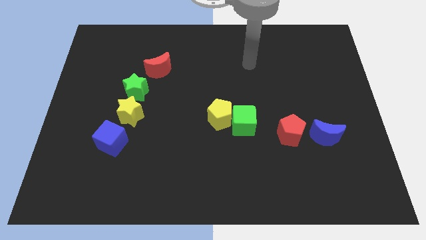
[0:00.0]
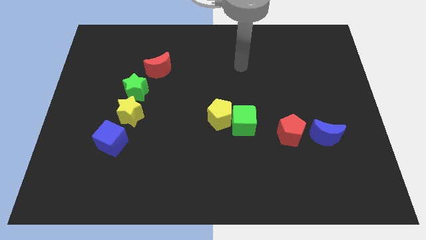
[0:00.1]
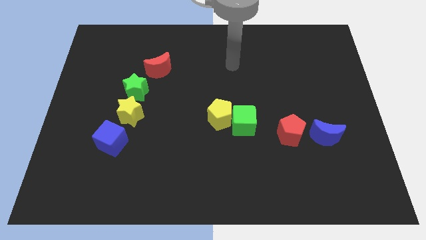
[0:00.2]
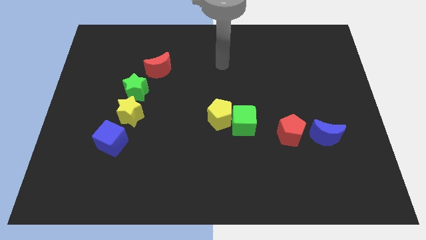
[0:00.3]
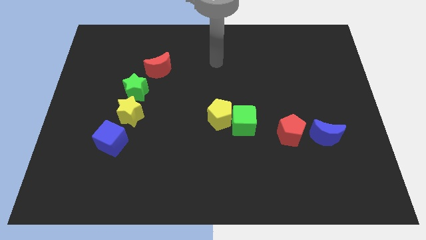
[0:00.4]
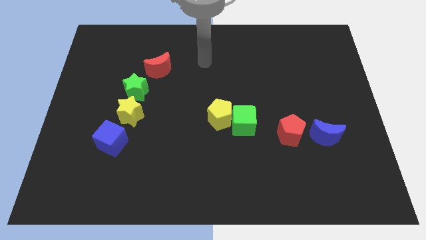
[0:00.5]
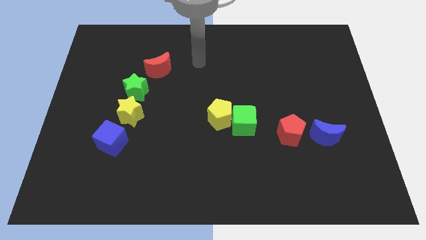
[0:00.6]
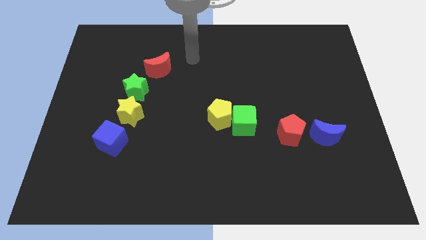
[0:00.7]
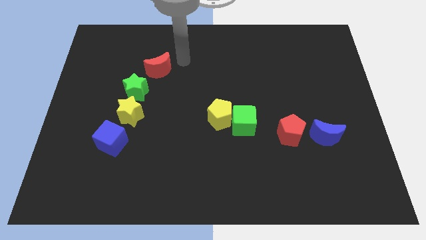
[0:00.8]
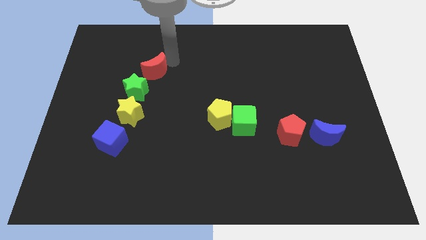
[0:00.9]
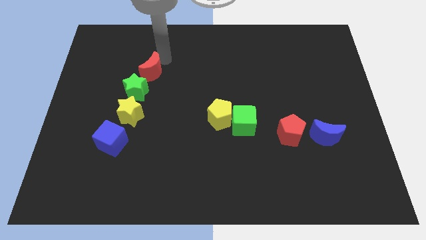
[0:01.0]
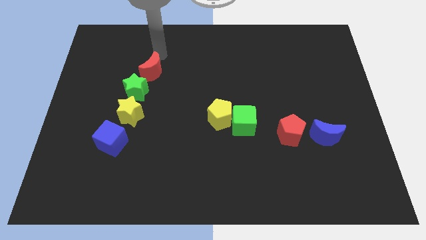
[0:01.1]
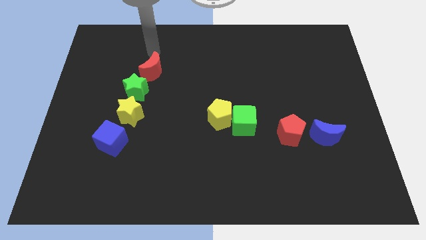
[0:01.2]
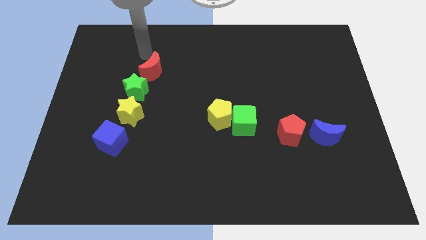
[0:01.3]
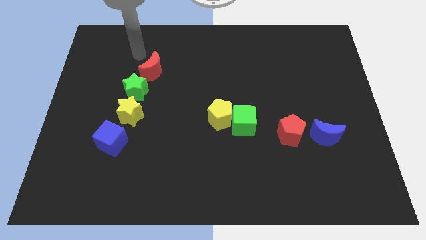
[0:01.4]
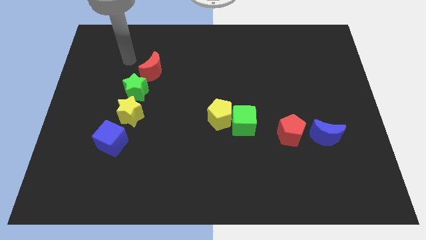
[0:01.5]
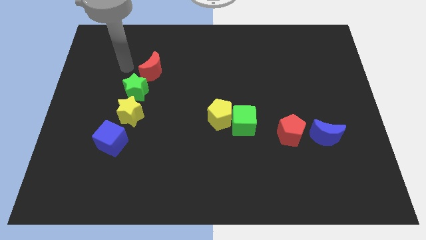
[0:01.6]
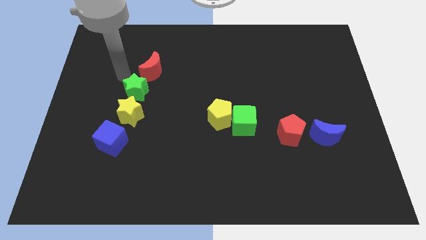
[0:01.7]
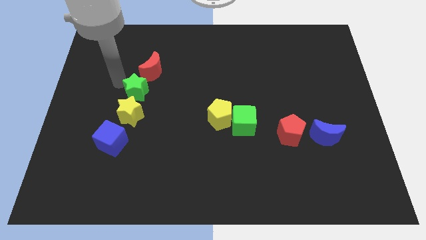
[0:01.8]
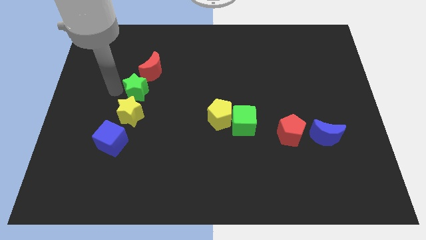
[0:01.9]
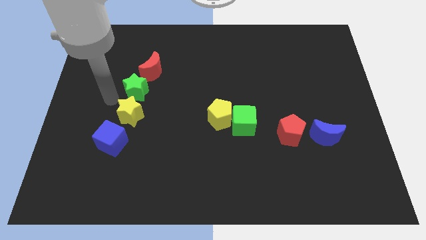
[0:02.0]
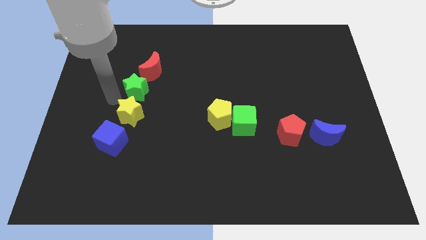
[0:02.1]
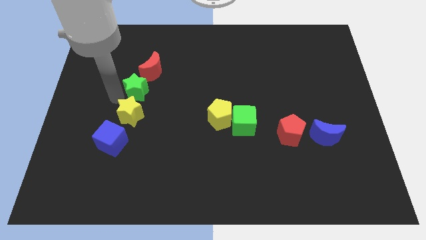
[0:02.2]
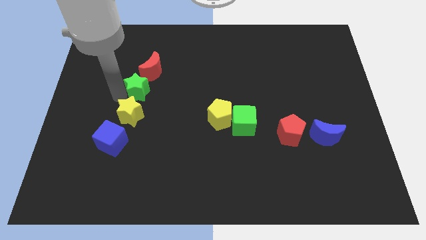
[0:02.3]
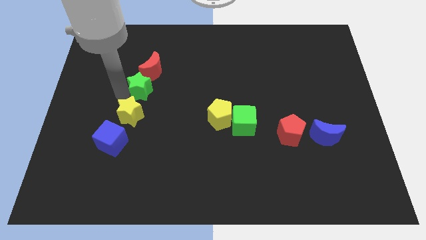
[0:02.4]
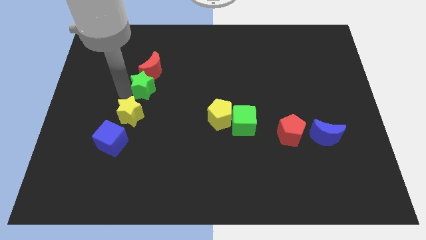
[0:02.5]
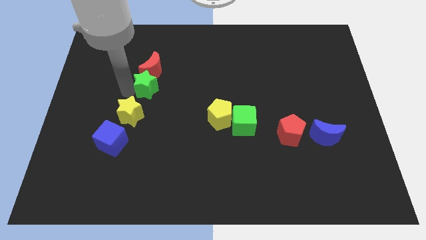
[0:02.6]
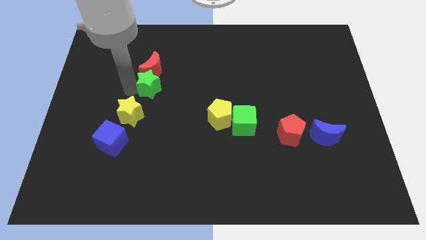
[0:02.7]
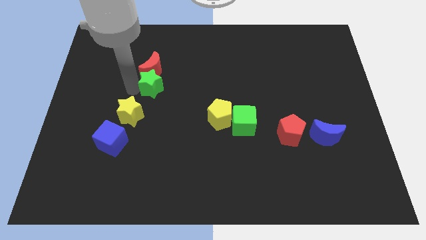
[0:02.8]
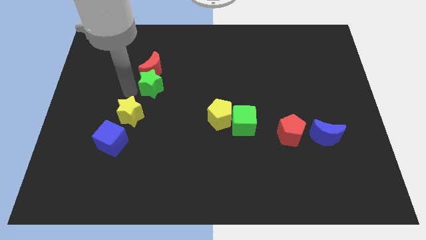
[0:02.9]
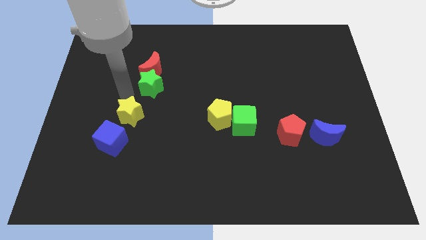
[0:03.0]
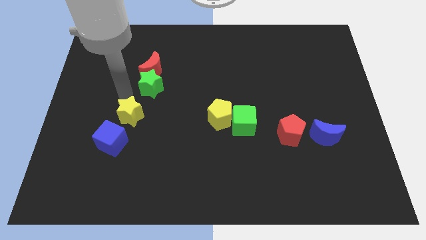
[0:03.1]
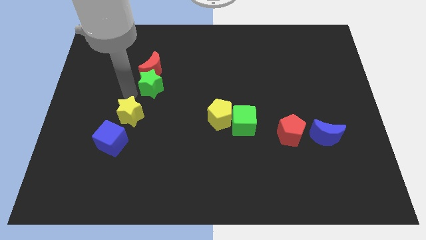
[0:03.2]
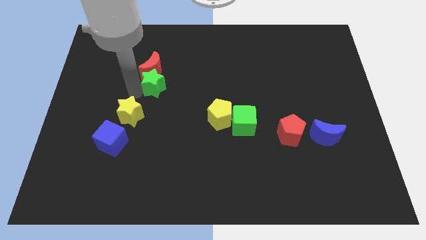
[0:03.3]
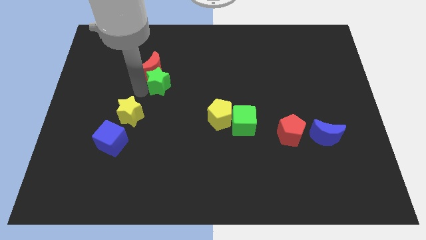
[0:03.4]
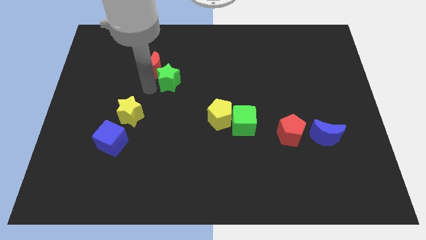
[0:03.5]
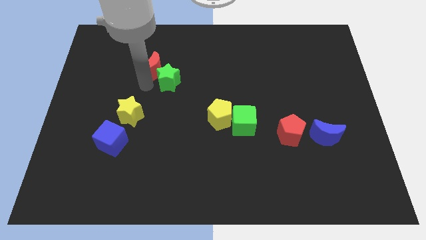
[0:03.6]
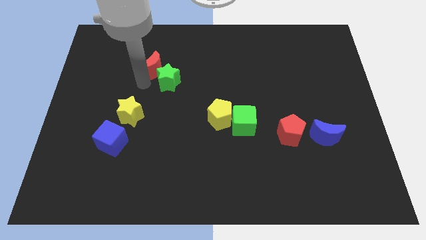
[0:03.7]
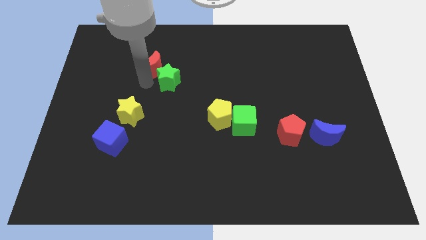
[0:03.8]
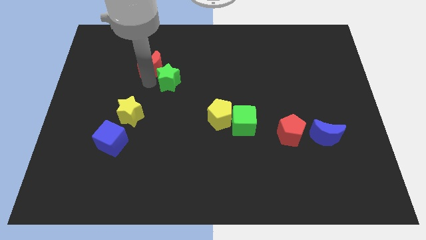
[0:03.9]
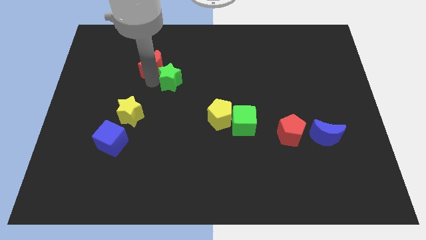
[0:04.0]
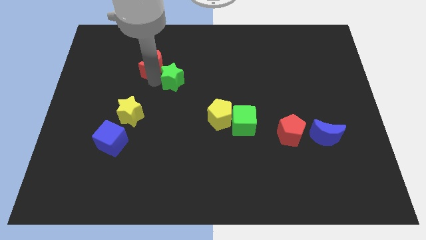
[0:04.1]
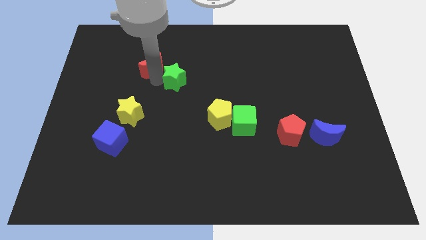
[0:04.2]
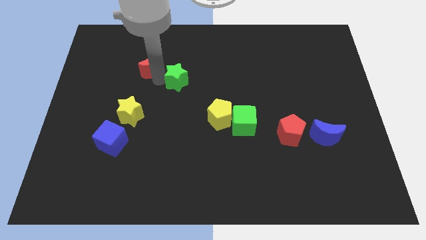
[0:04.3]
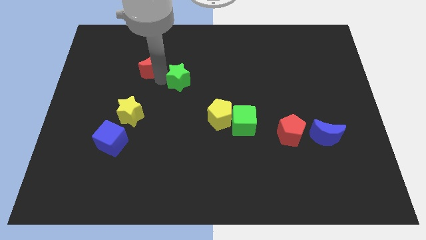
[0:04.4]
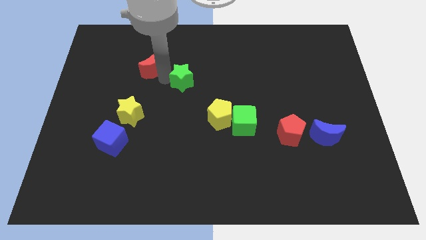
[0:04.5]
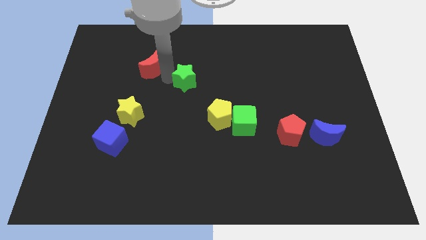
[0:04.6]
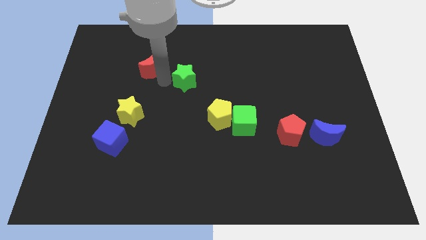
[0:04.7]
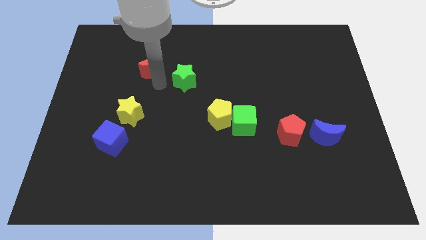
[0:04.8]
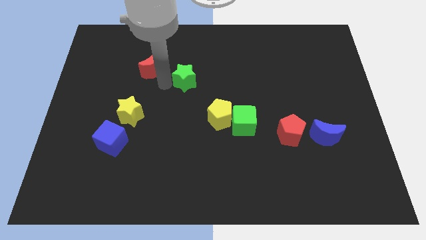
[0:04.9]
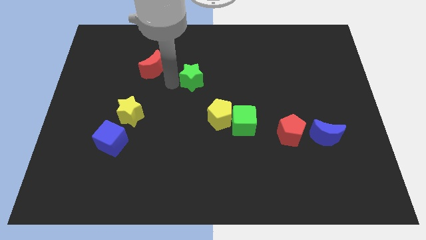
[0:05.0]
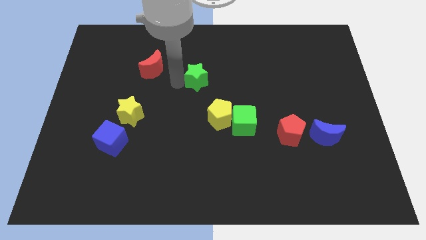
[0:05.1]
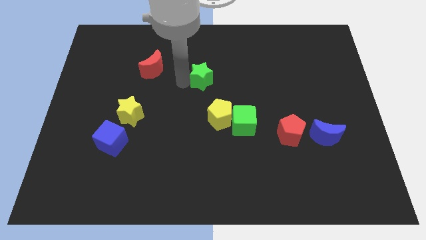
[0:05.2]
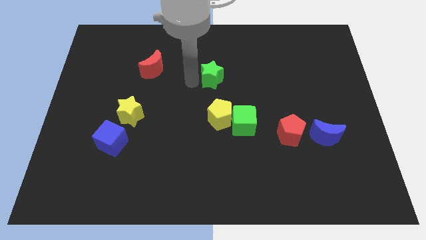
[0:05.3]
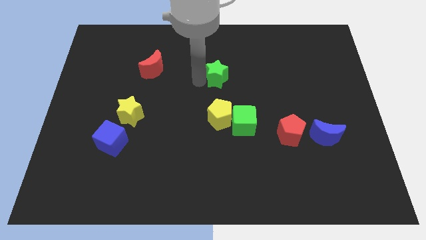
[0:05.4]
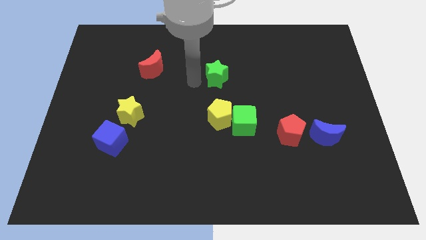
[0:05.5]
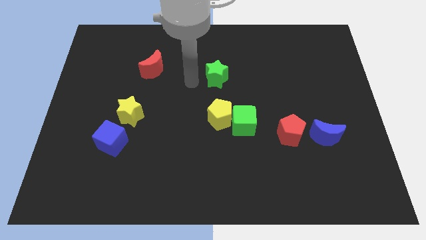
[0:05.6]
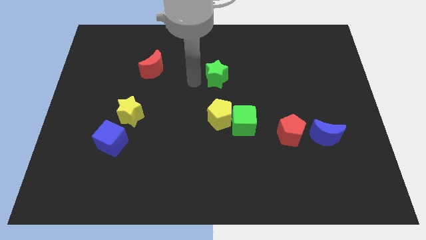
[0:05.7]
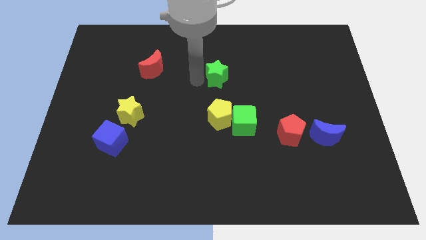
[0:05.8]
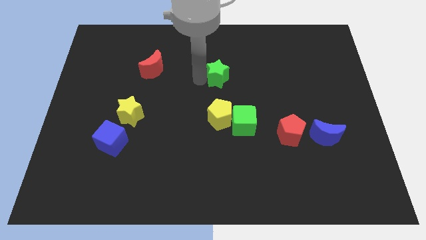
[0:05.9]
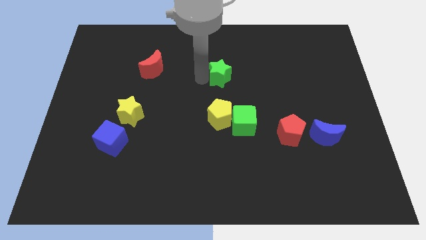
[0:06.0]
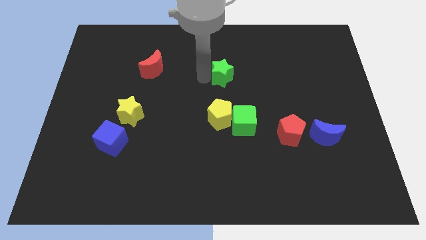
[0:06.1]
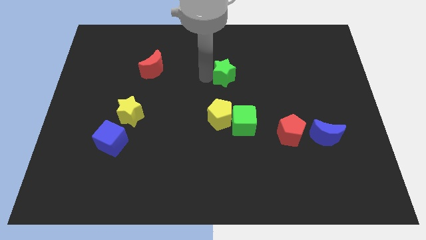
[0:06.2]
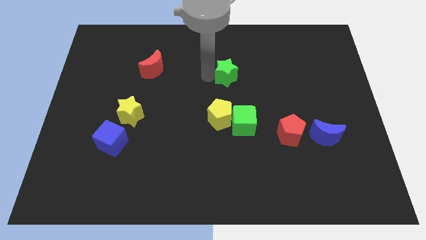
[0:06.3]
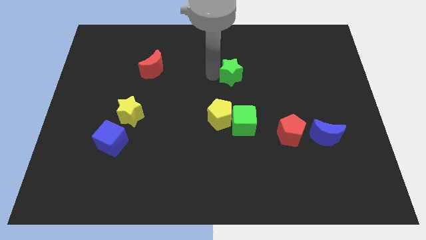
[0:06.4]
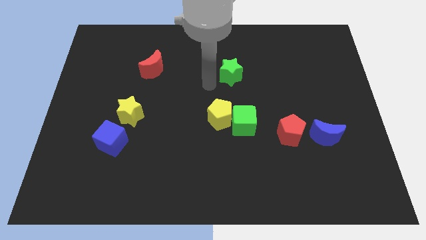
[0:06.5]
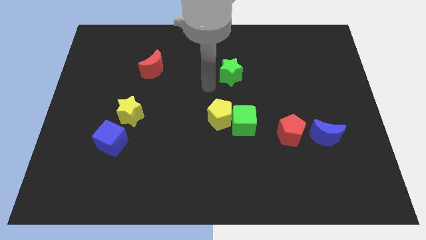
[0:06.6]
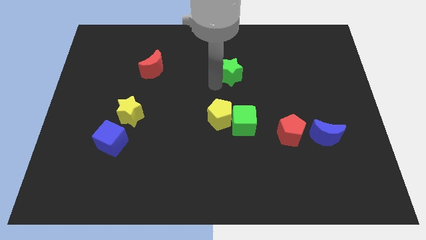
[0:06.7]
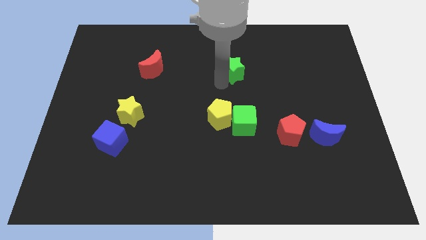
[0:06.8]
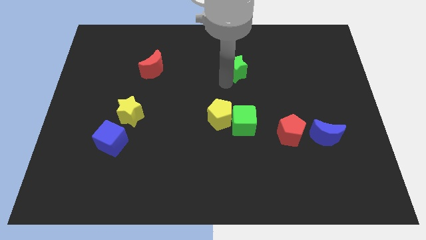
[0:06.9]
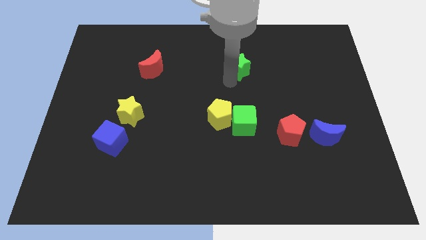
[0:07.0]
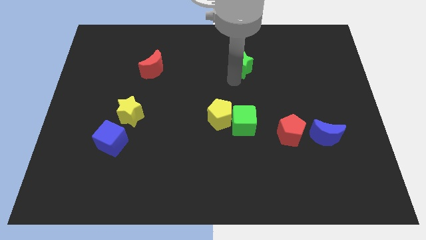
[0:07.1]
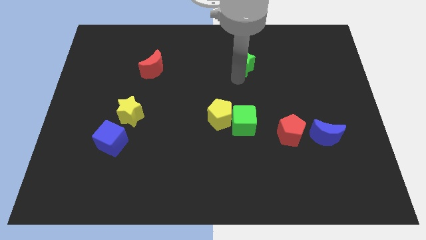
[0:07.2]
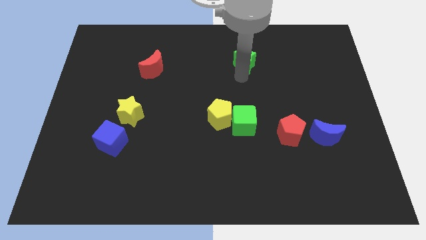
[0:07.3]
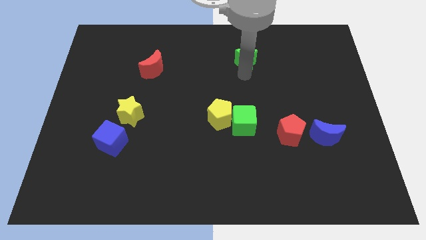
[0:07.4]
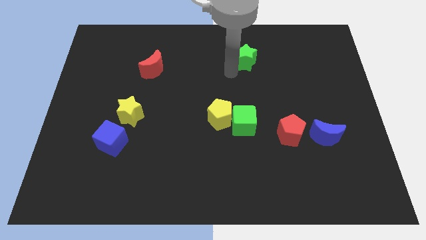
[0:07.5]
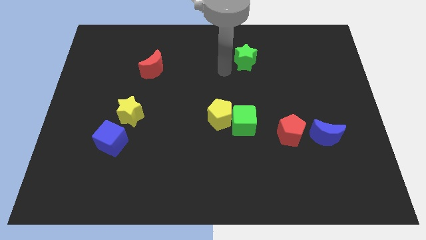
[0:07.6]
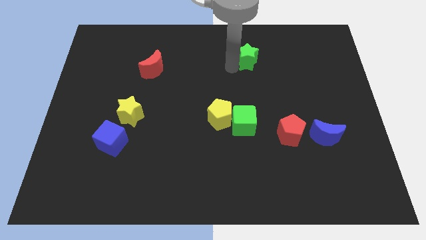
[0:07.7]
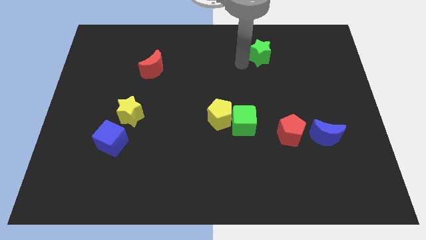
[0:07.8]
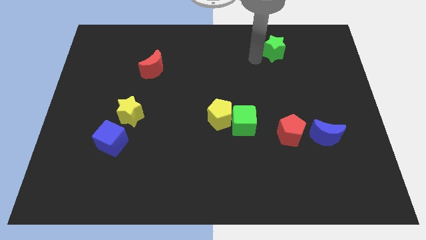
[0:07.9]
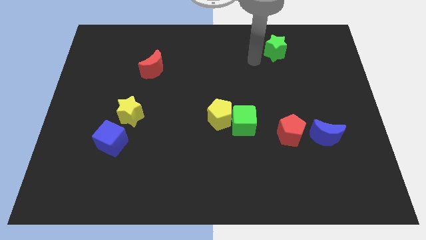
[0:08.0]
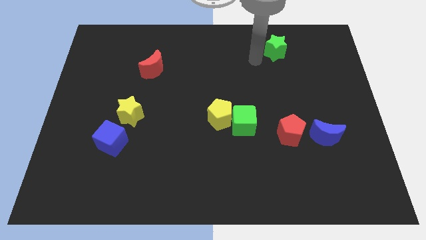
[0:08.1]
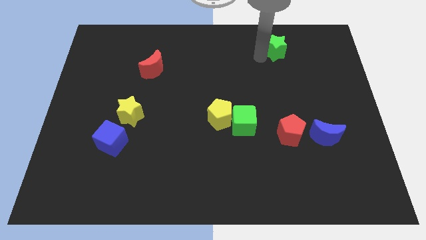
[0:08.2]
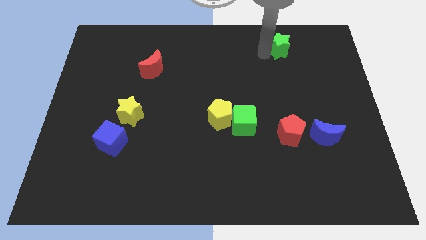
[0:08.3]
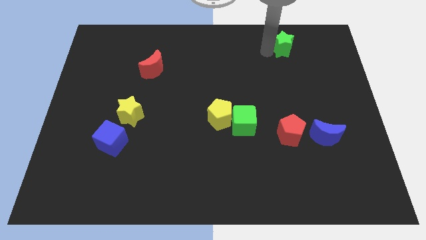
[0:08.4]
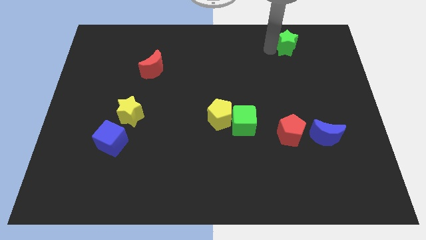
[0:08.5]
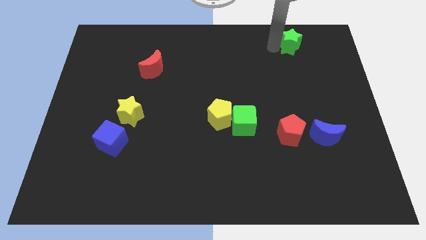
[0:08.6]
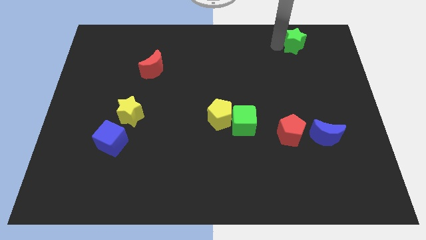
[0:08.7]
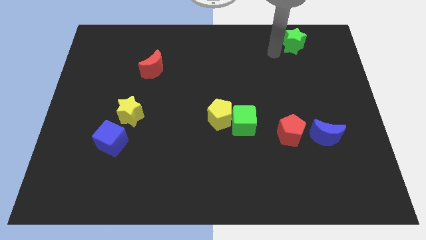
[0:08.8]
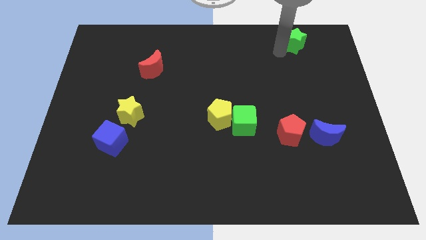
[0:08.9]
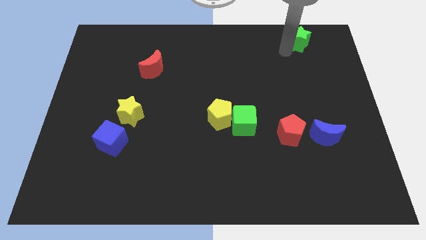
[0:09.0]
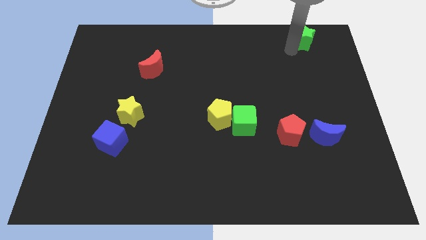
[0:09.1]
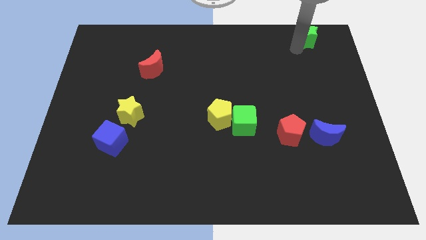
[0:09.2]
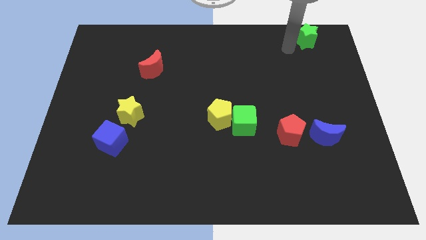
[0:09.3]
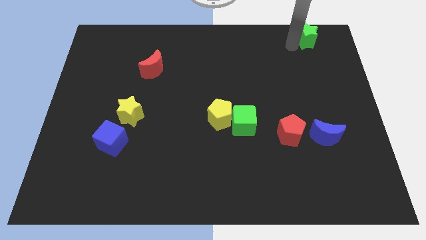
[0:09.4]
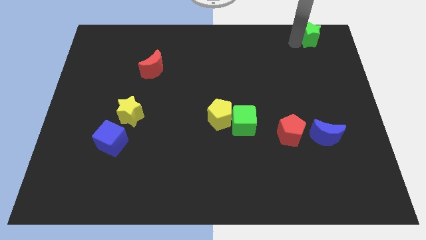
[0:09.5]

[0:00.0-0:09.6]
put the green star to the top right corner
